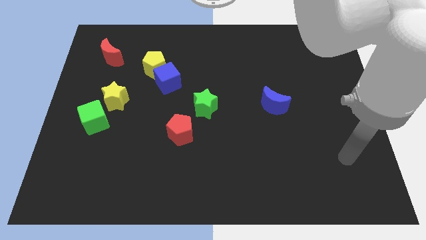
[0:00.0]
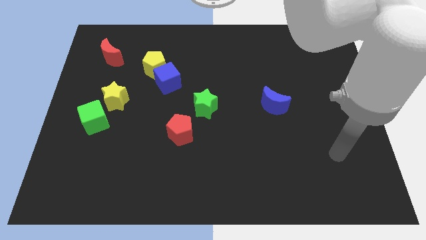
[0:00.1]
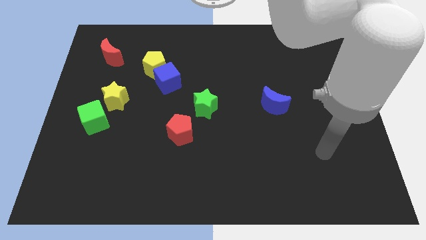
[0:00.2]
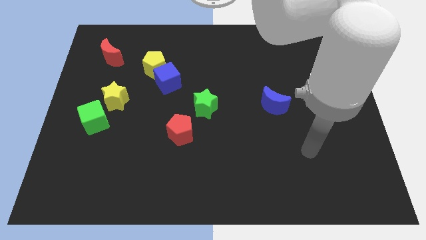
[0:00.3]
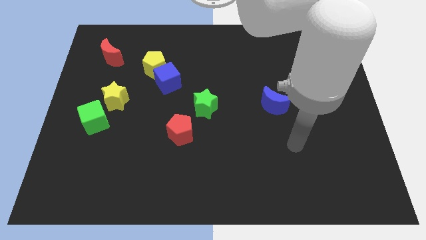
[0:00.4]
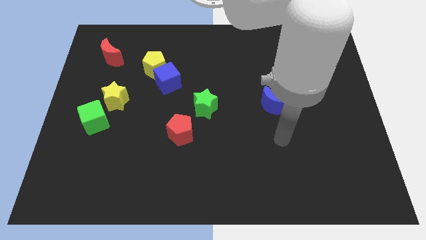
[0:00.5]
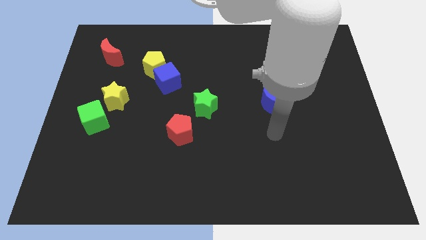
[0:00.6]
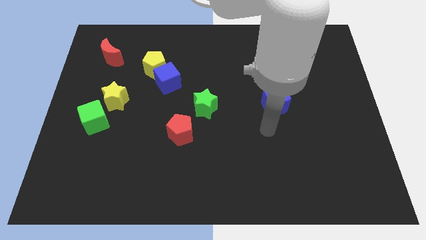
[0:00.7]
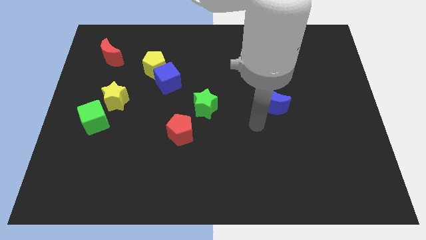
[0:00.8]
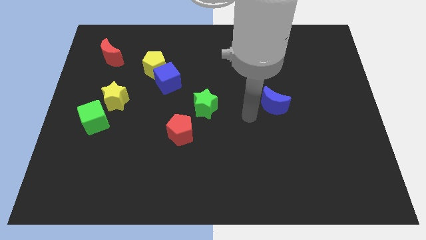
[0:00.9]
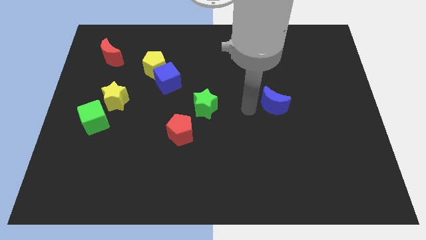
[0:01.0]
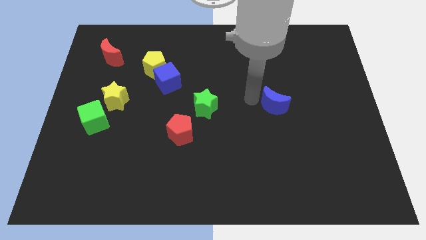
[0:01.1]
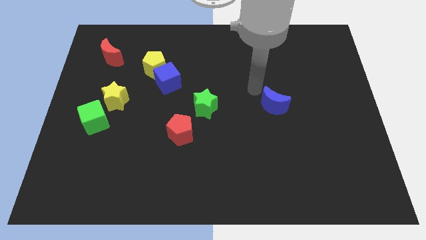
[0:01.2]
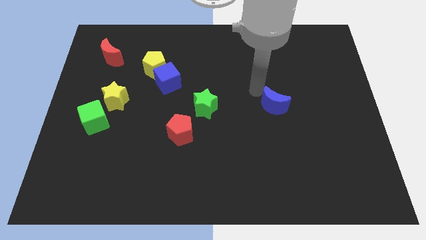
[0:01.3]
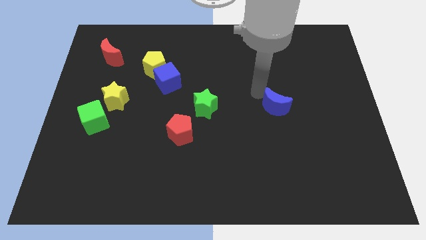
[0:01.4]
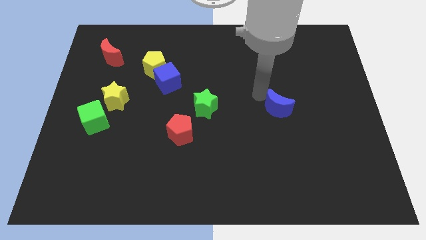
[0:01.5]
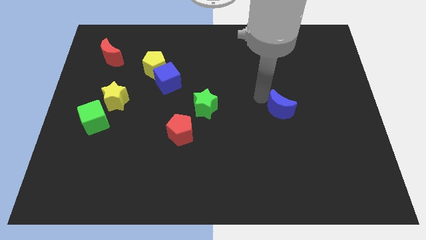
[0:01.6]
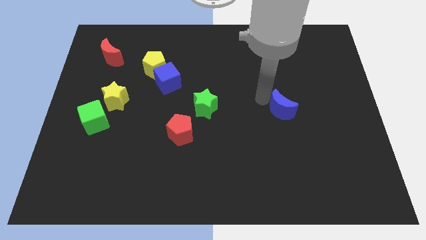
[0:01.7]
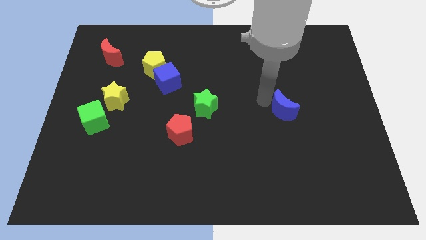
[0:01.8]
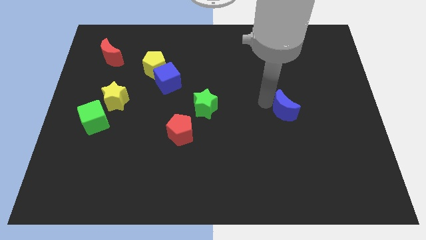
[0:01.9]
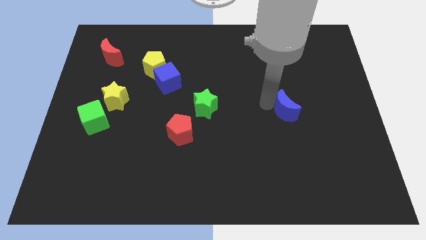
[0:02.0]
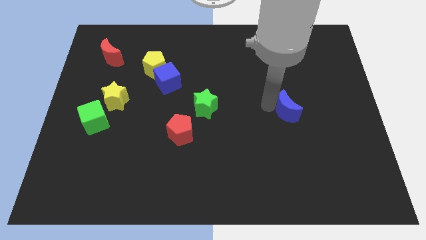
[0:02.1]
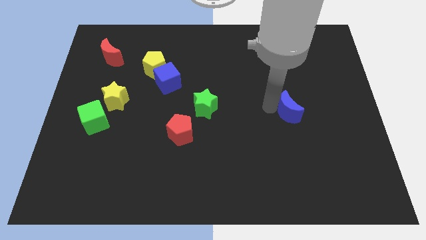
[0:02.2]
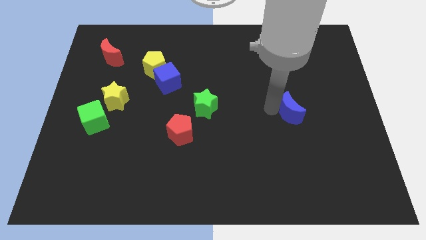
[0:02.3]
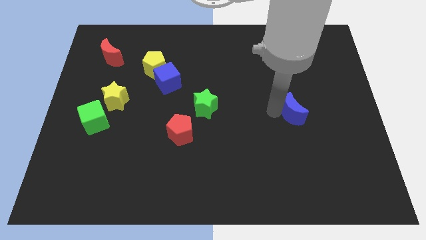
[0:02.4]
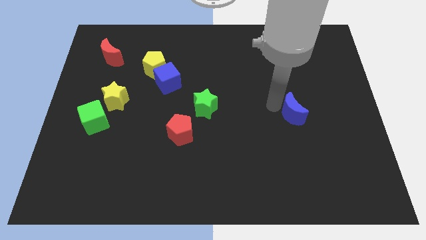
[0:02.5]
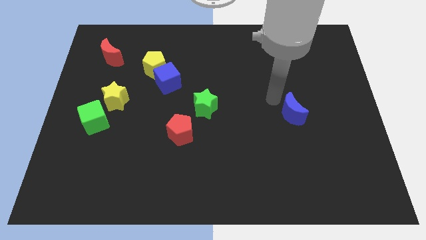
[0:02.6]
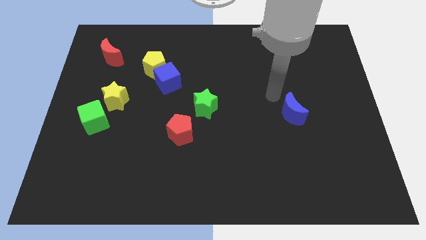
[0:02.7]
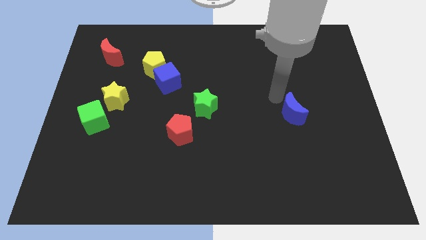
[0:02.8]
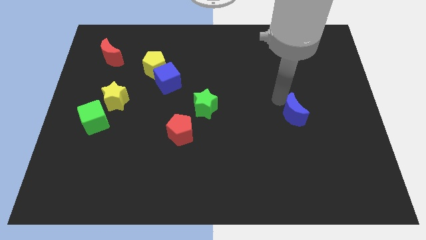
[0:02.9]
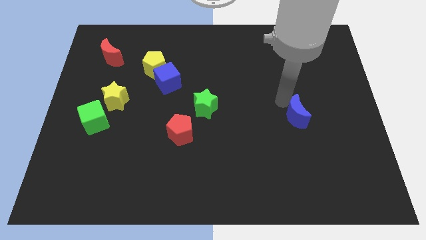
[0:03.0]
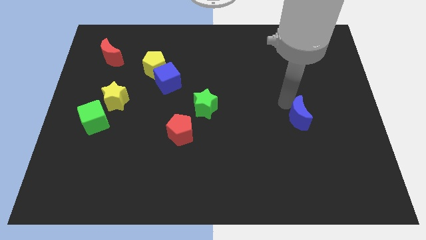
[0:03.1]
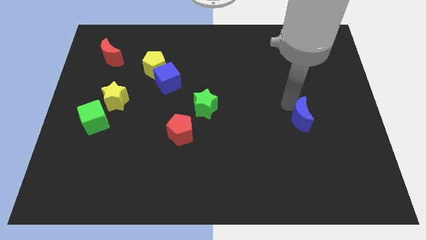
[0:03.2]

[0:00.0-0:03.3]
slightly push the blue moon down and right diagonally

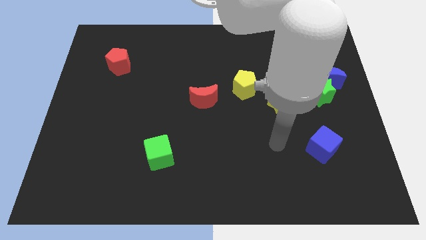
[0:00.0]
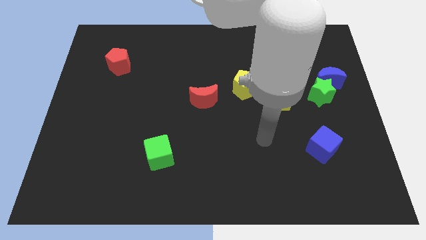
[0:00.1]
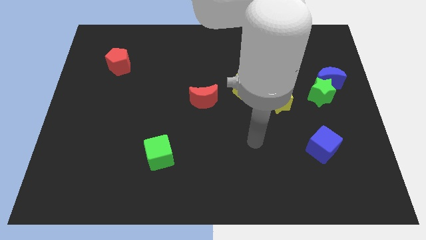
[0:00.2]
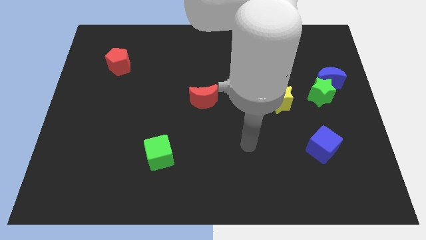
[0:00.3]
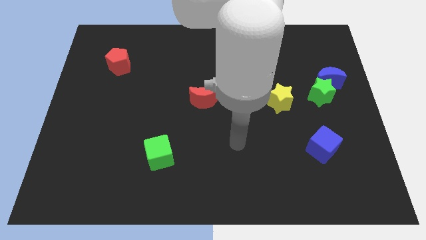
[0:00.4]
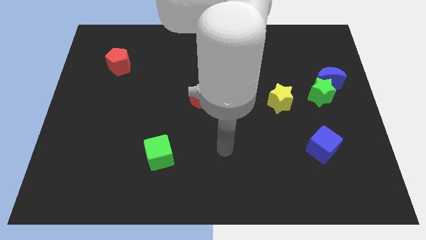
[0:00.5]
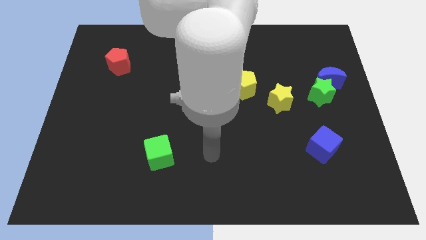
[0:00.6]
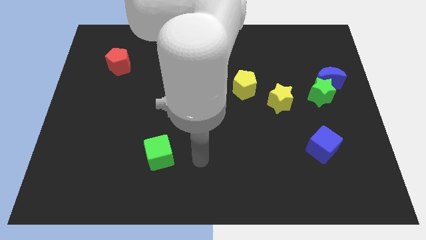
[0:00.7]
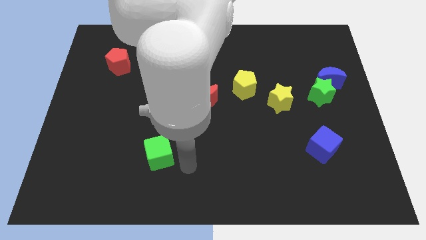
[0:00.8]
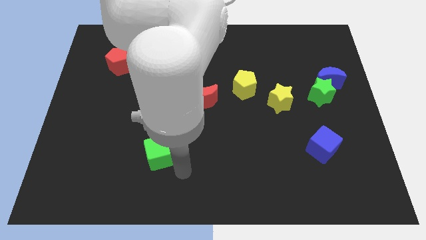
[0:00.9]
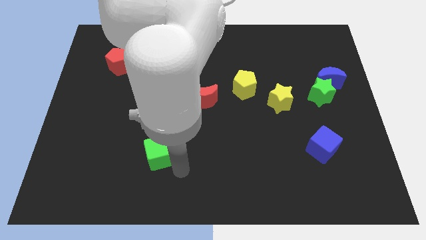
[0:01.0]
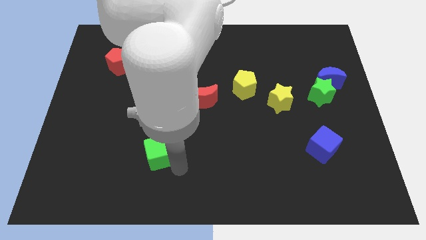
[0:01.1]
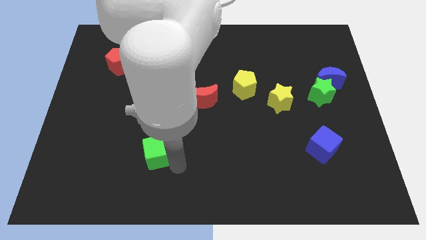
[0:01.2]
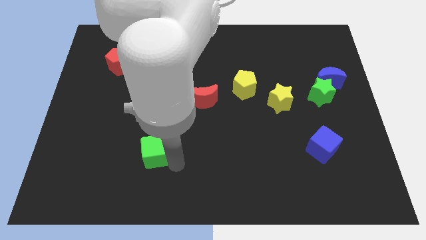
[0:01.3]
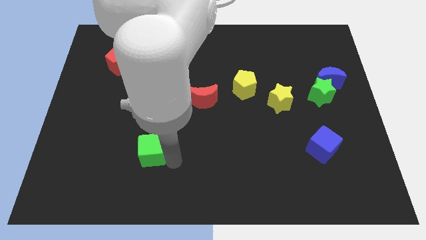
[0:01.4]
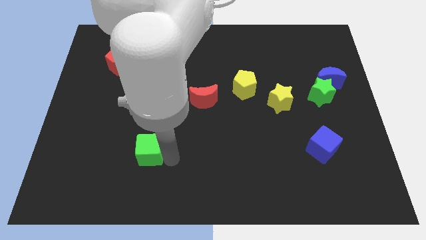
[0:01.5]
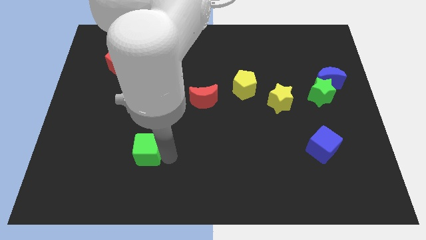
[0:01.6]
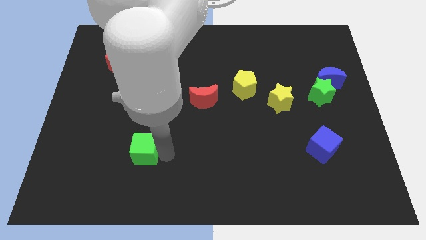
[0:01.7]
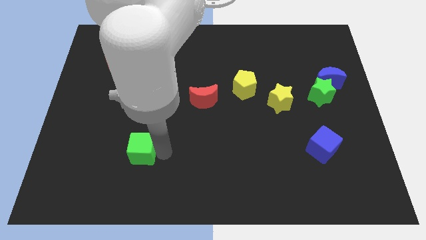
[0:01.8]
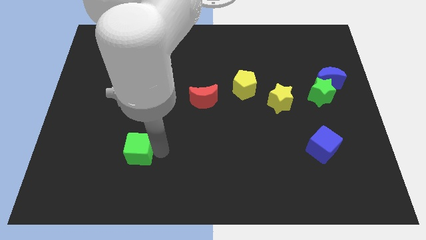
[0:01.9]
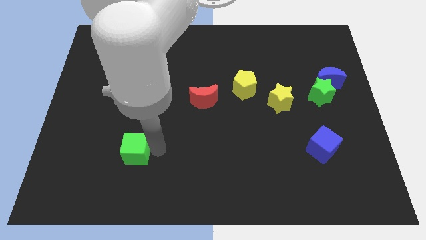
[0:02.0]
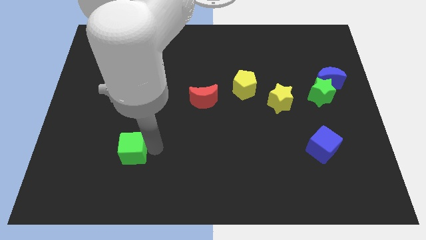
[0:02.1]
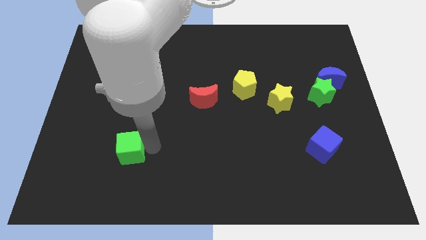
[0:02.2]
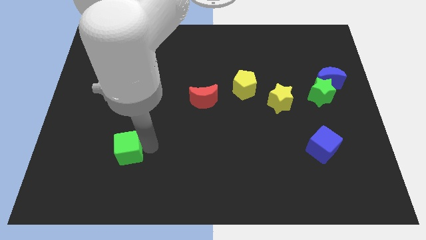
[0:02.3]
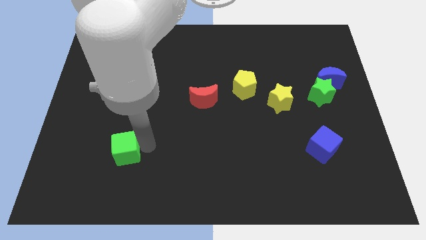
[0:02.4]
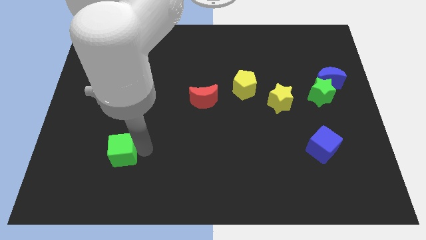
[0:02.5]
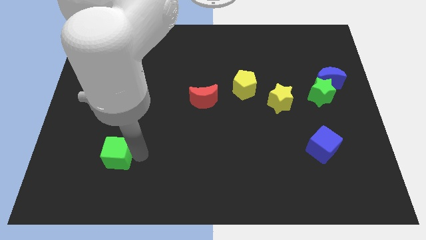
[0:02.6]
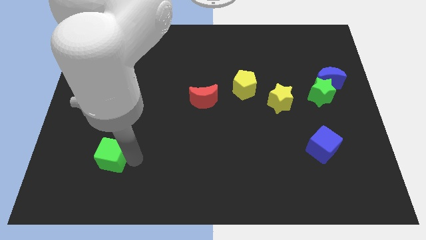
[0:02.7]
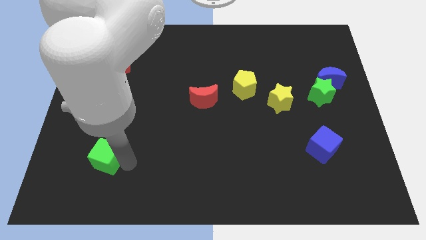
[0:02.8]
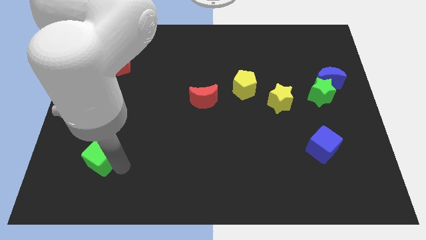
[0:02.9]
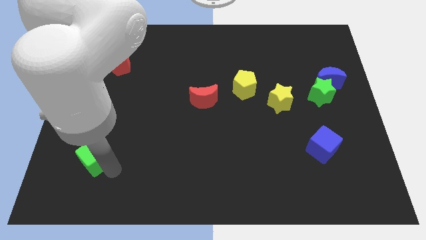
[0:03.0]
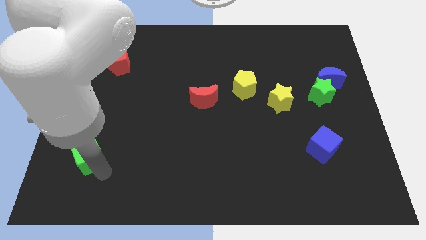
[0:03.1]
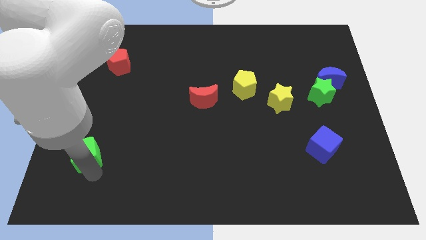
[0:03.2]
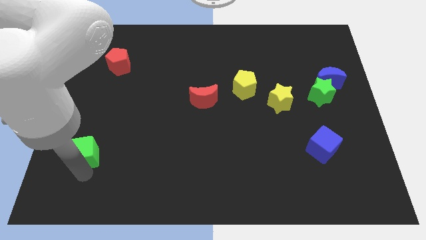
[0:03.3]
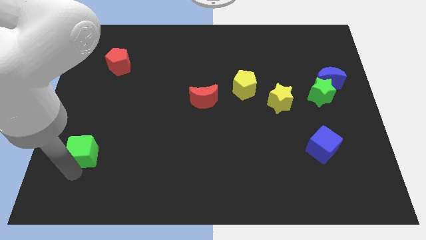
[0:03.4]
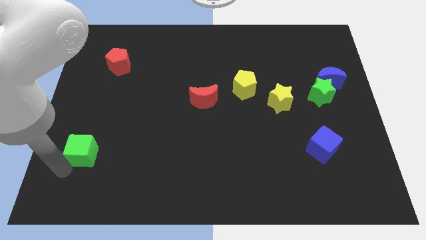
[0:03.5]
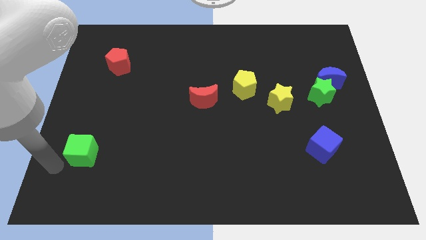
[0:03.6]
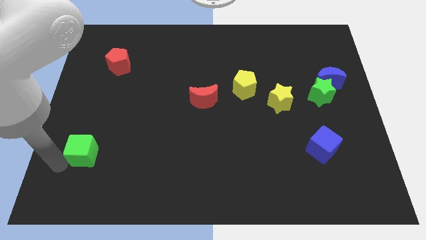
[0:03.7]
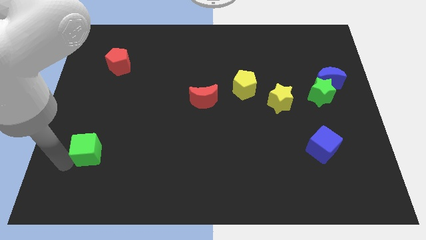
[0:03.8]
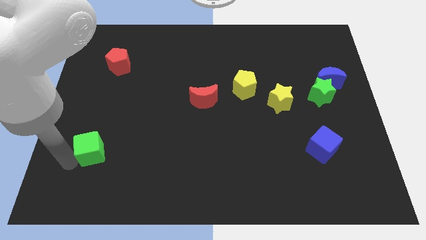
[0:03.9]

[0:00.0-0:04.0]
slightly slide the green cube upwards and to the left

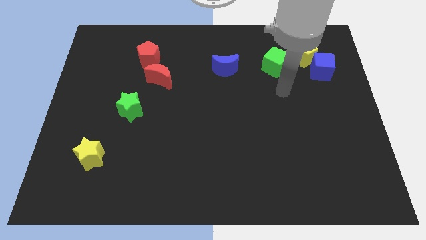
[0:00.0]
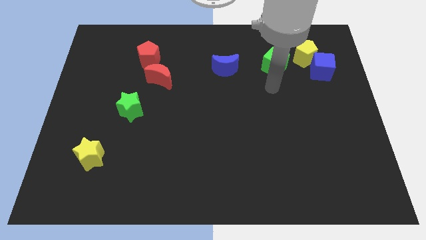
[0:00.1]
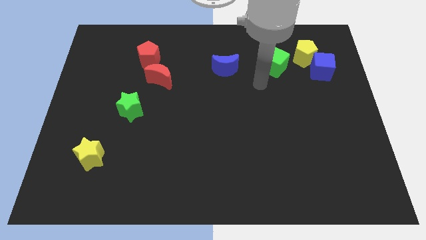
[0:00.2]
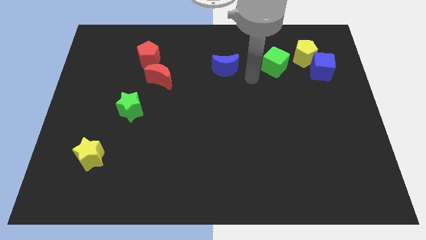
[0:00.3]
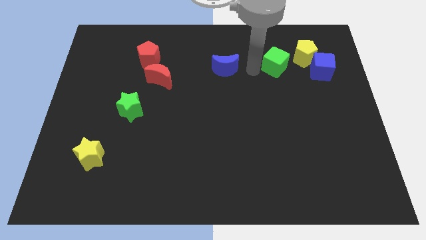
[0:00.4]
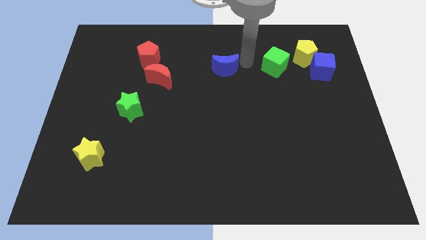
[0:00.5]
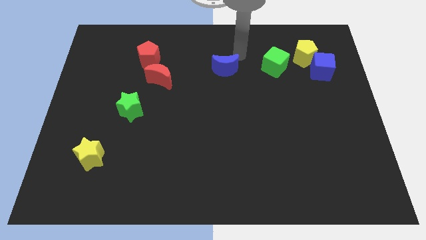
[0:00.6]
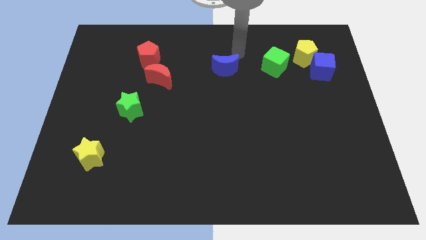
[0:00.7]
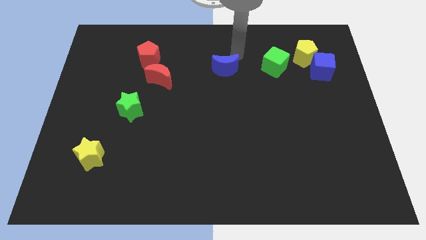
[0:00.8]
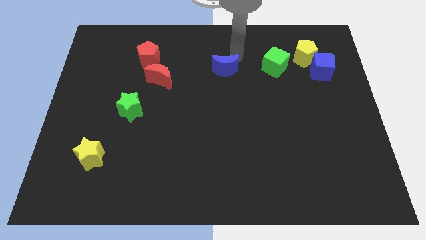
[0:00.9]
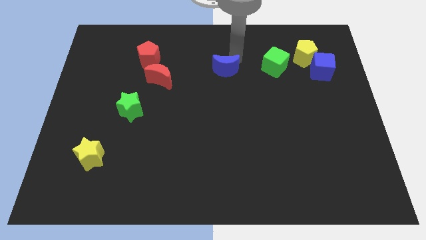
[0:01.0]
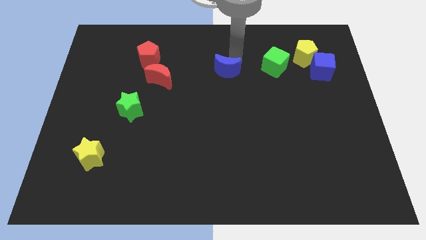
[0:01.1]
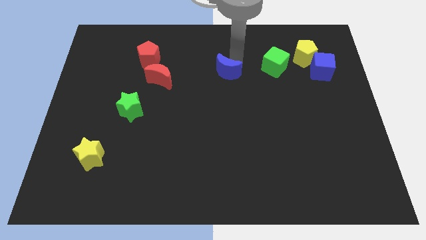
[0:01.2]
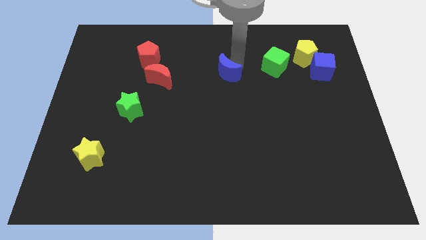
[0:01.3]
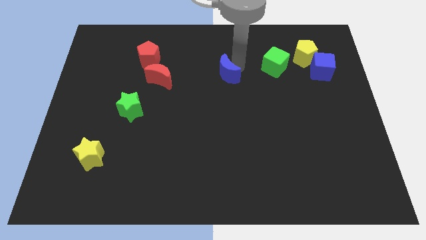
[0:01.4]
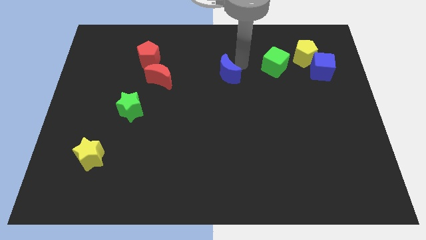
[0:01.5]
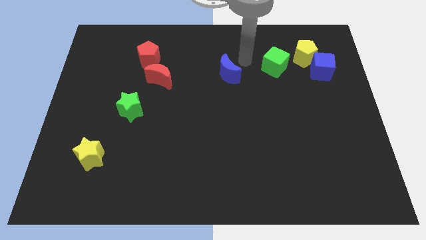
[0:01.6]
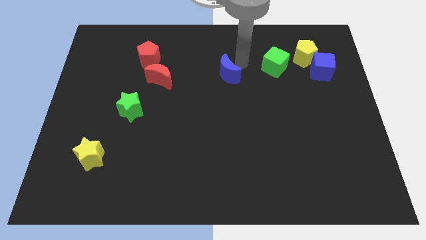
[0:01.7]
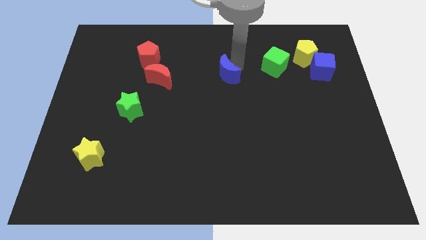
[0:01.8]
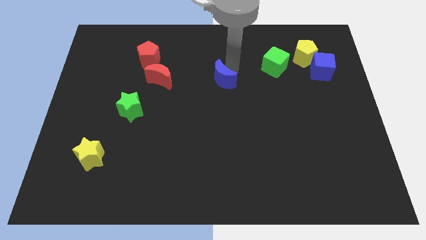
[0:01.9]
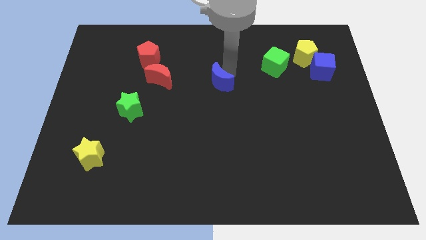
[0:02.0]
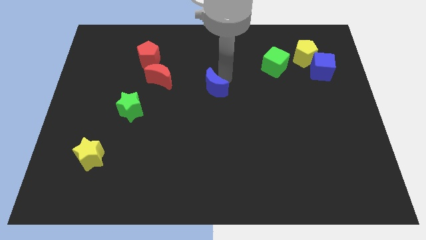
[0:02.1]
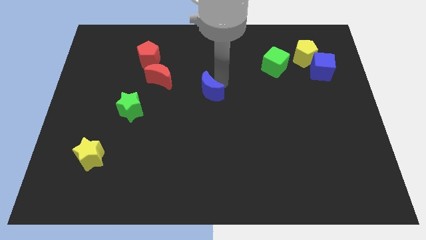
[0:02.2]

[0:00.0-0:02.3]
slightly slide the blue moon diagonally down and left
